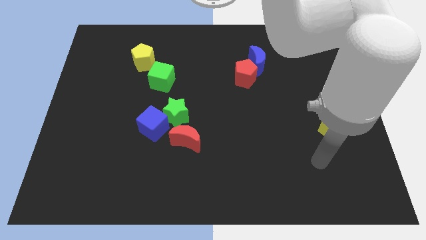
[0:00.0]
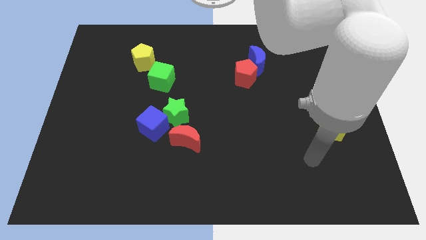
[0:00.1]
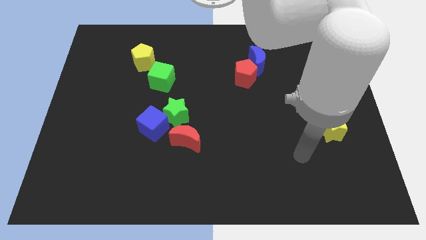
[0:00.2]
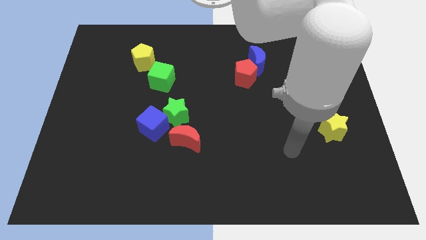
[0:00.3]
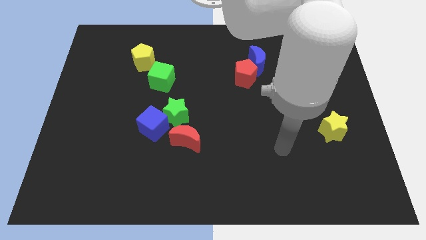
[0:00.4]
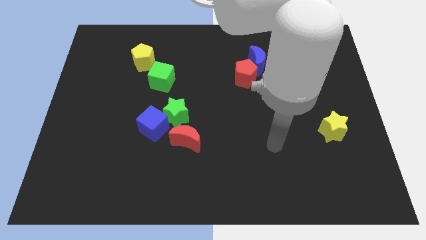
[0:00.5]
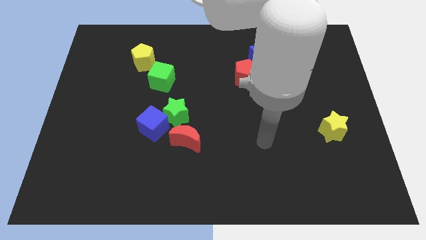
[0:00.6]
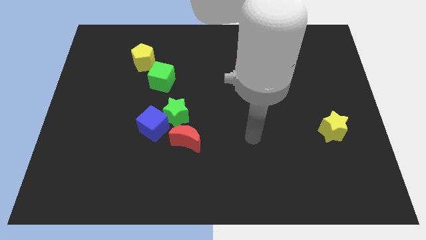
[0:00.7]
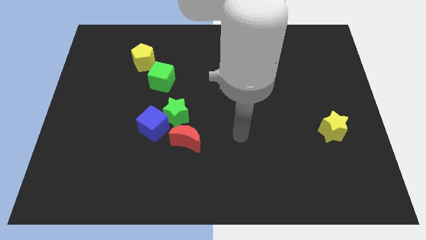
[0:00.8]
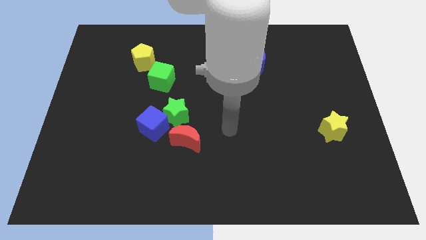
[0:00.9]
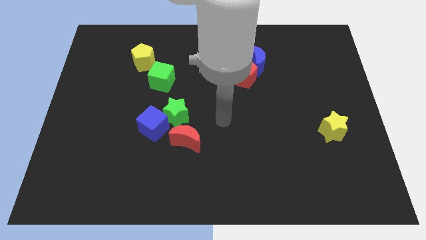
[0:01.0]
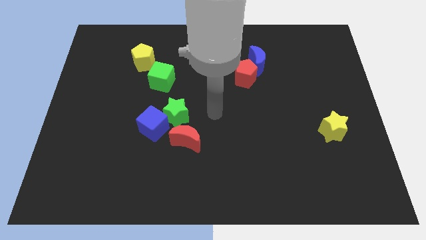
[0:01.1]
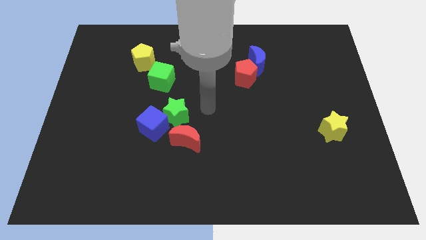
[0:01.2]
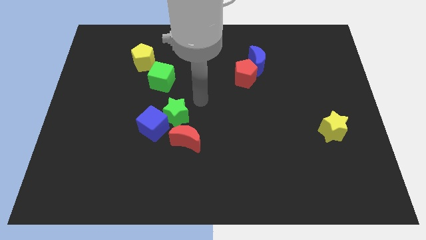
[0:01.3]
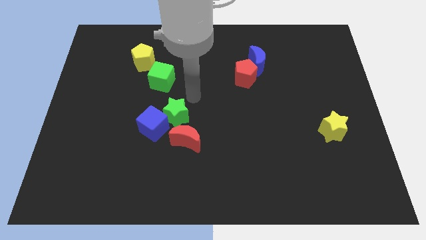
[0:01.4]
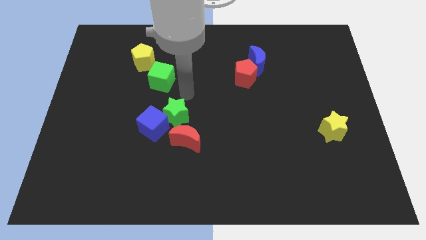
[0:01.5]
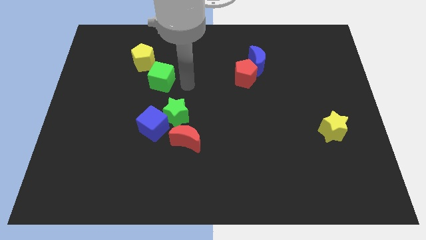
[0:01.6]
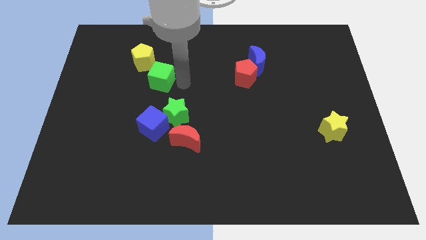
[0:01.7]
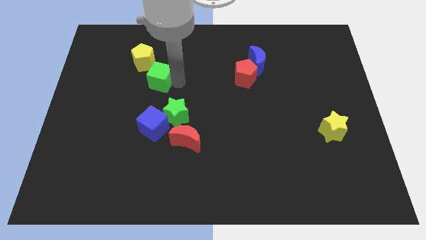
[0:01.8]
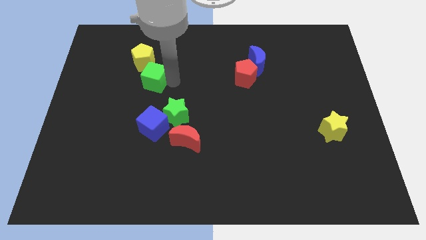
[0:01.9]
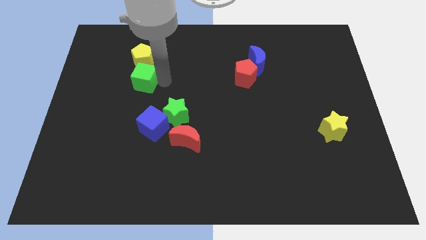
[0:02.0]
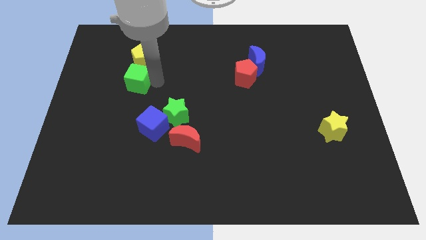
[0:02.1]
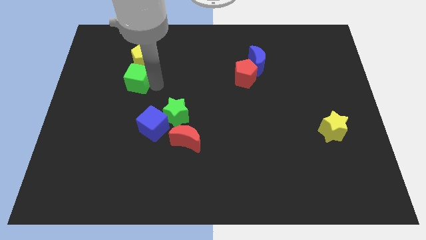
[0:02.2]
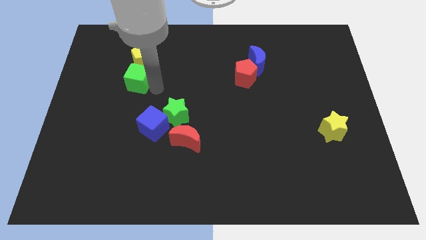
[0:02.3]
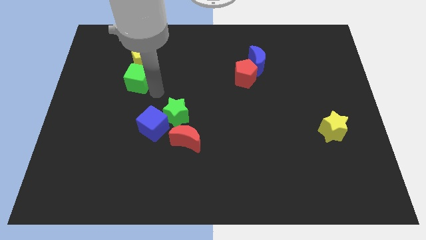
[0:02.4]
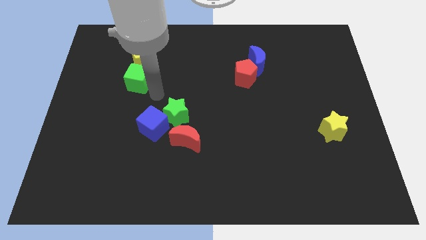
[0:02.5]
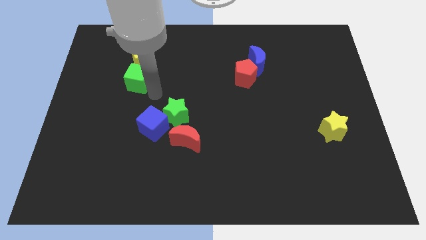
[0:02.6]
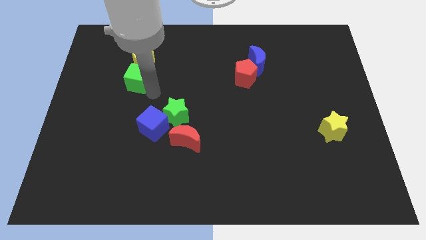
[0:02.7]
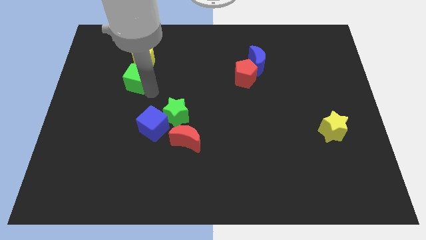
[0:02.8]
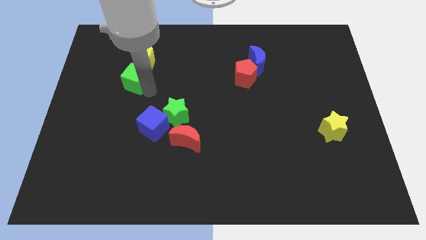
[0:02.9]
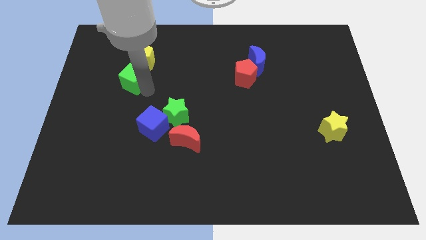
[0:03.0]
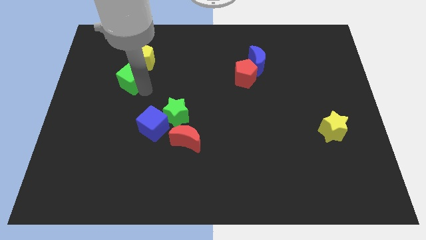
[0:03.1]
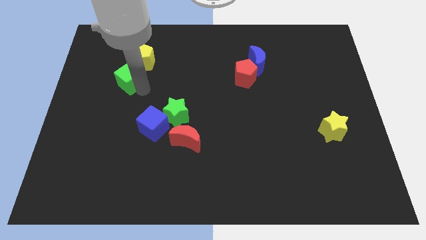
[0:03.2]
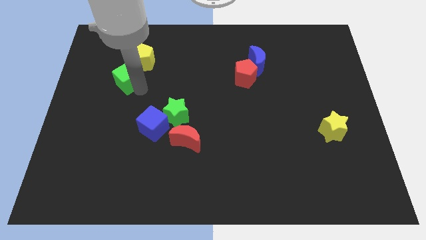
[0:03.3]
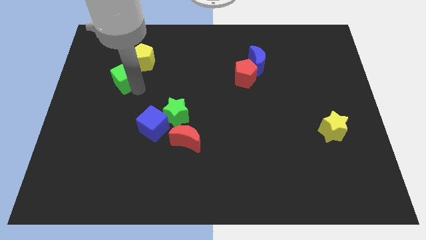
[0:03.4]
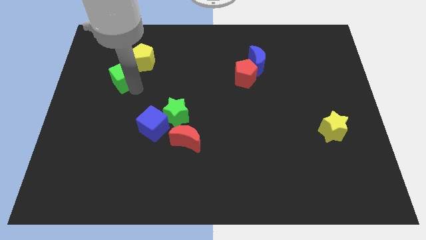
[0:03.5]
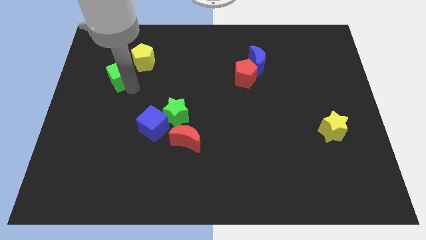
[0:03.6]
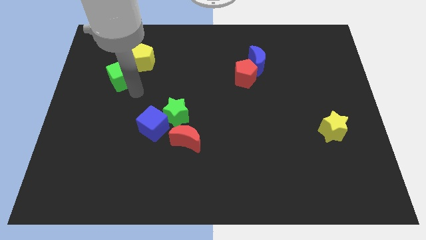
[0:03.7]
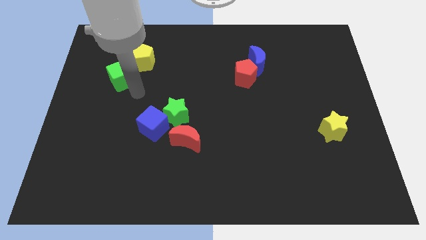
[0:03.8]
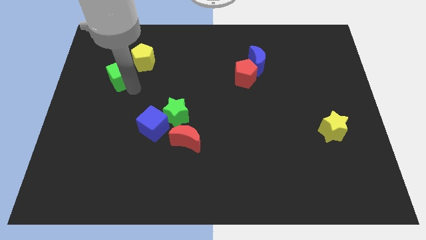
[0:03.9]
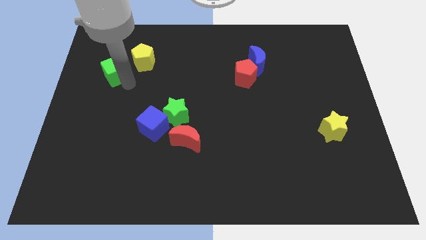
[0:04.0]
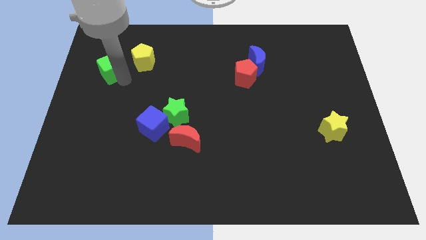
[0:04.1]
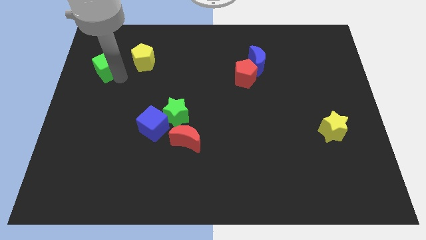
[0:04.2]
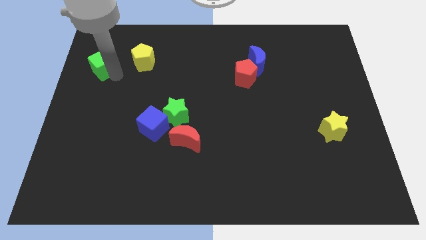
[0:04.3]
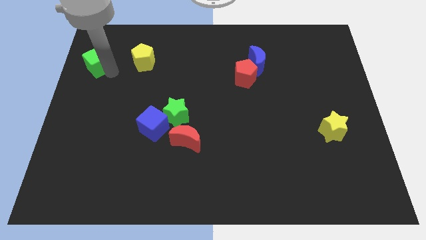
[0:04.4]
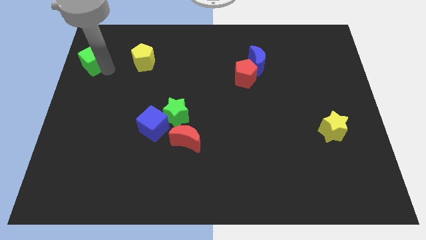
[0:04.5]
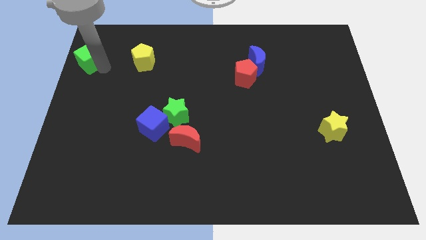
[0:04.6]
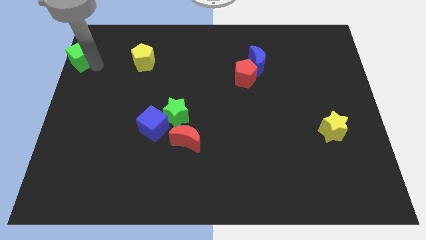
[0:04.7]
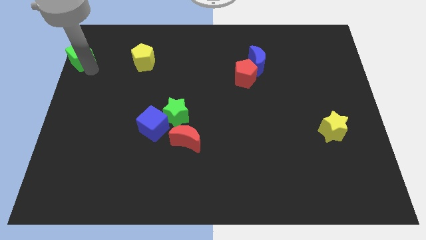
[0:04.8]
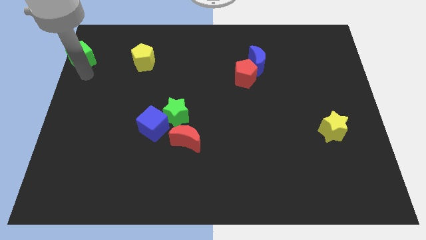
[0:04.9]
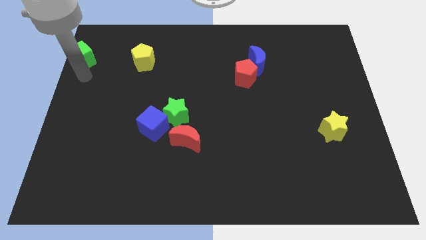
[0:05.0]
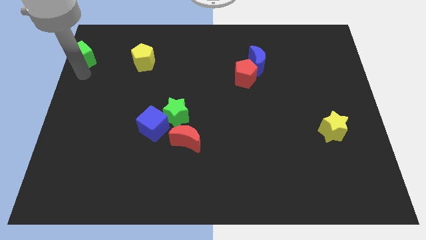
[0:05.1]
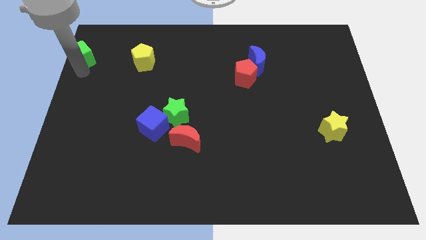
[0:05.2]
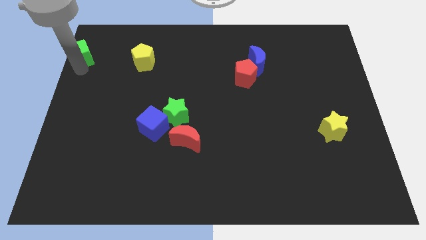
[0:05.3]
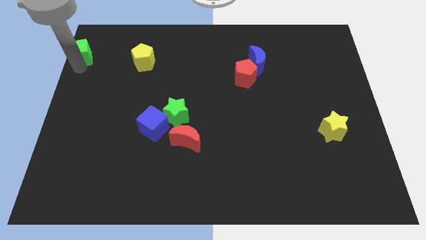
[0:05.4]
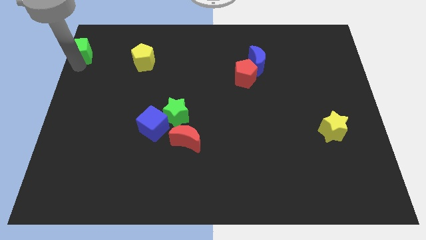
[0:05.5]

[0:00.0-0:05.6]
put the green cube to the top left corner
